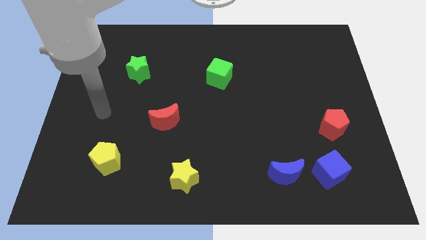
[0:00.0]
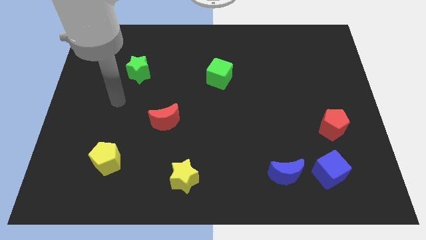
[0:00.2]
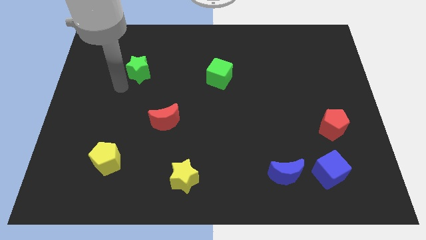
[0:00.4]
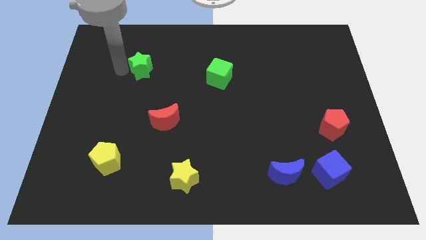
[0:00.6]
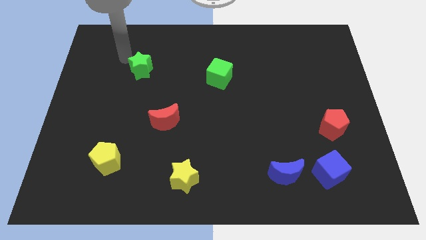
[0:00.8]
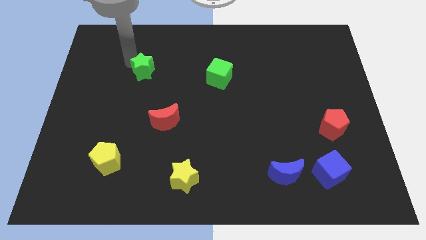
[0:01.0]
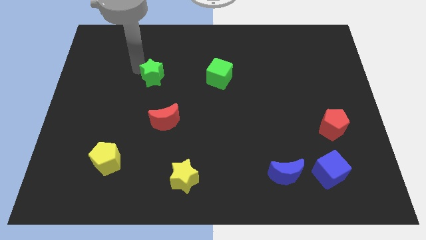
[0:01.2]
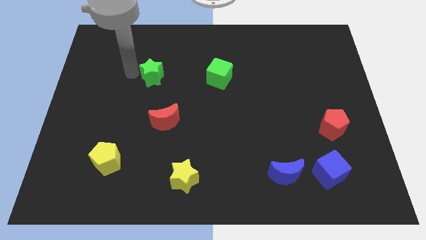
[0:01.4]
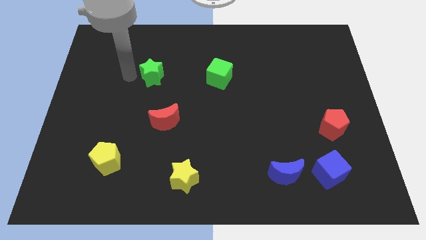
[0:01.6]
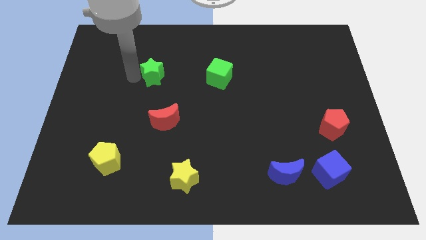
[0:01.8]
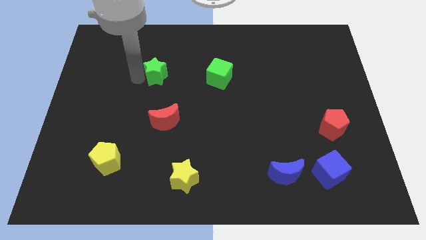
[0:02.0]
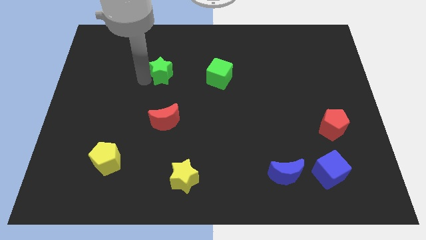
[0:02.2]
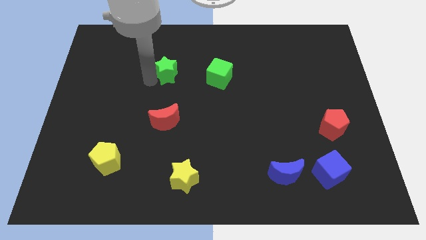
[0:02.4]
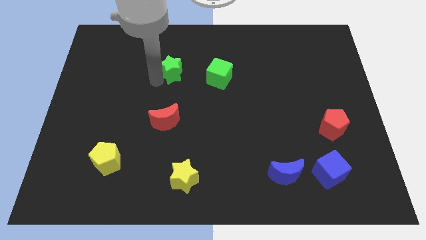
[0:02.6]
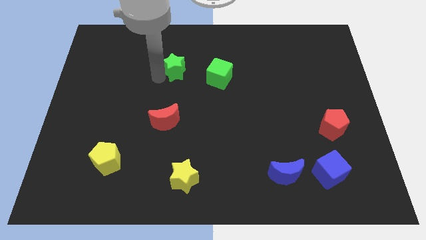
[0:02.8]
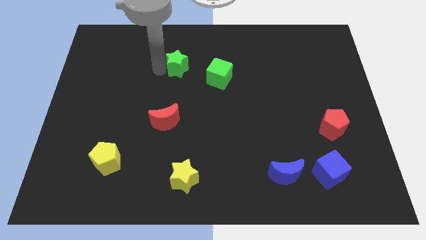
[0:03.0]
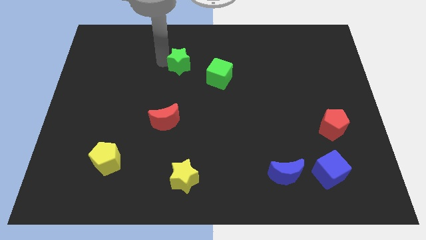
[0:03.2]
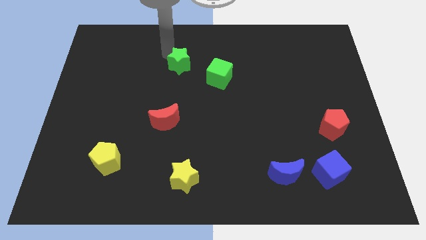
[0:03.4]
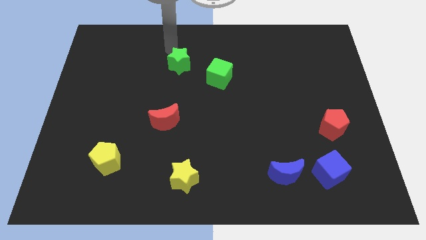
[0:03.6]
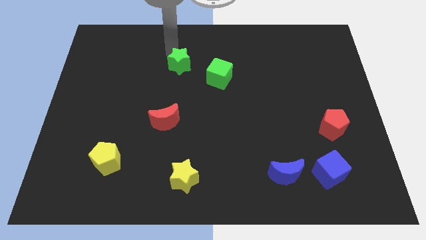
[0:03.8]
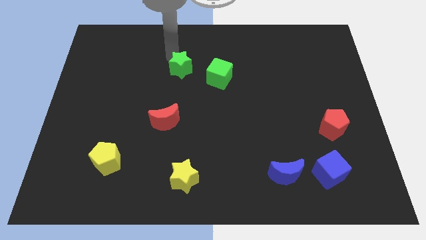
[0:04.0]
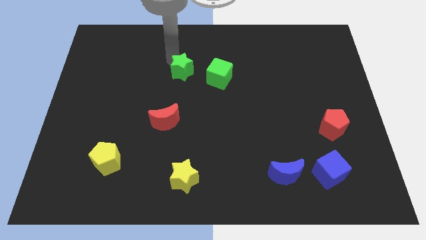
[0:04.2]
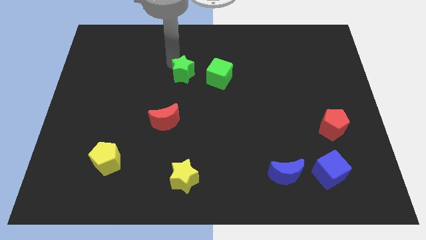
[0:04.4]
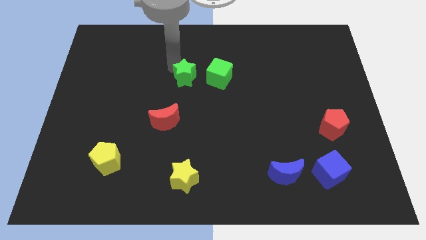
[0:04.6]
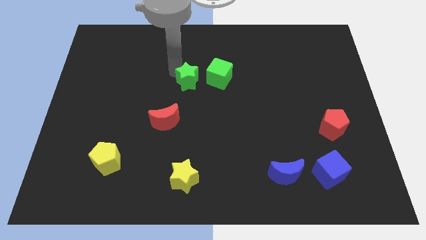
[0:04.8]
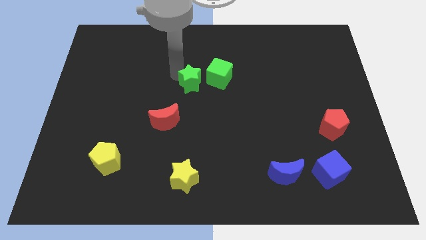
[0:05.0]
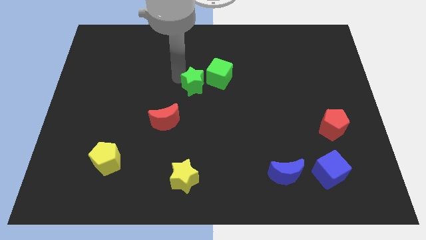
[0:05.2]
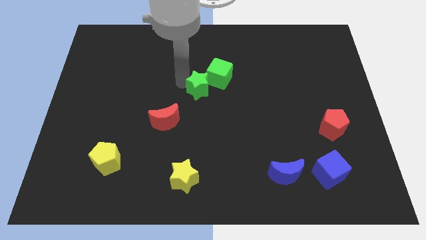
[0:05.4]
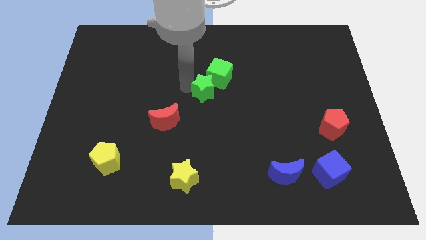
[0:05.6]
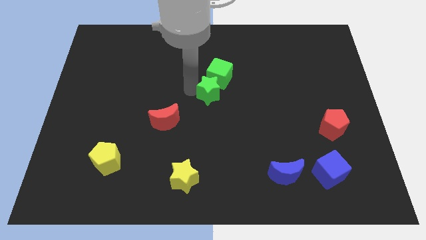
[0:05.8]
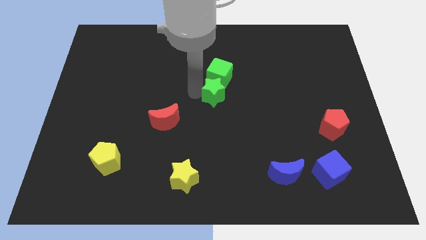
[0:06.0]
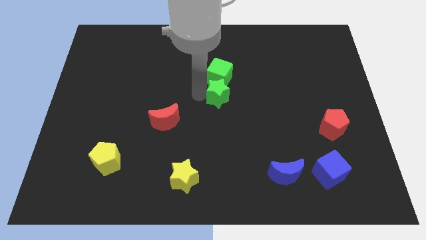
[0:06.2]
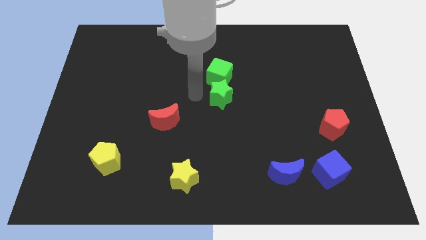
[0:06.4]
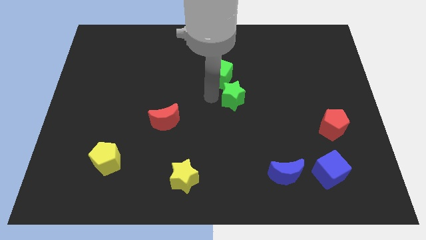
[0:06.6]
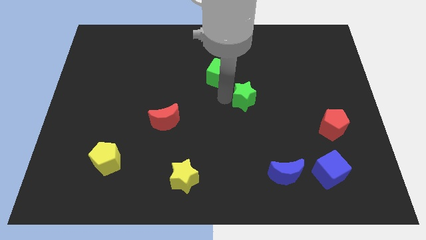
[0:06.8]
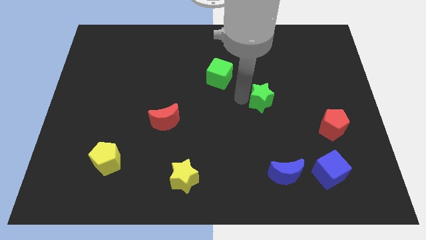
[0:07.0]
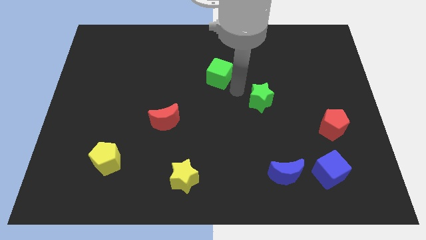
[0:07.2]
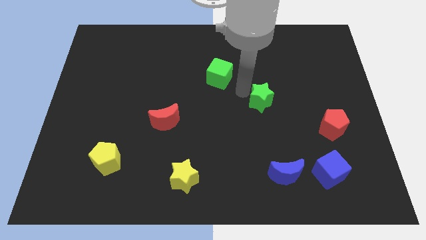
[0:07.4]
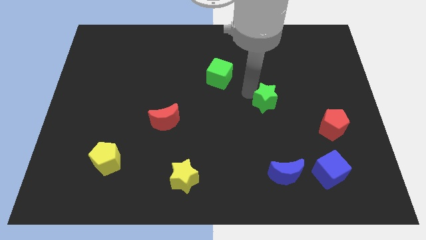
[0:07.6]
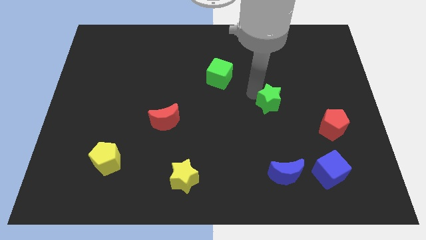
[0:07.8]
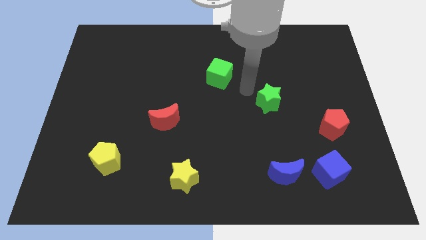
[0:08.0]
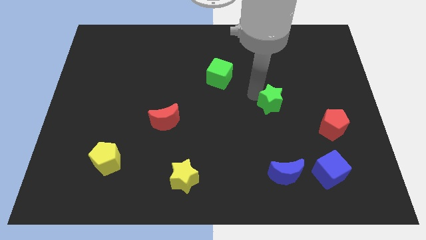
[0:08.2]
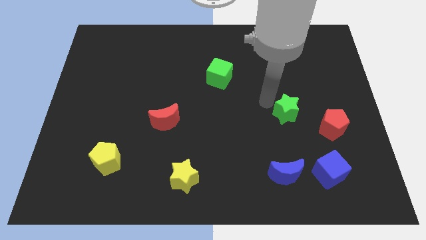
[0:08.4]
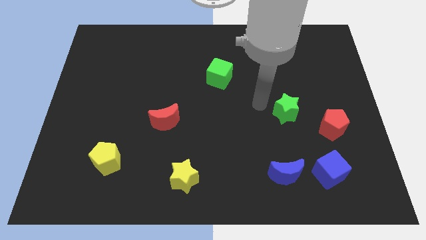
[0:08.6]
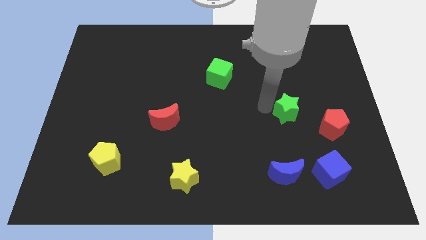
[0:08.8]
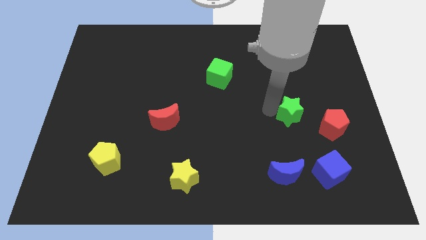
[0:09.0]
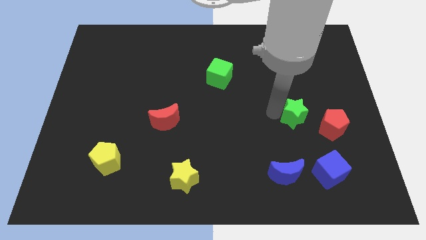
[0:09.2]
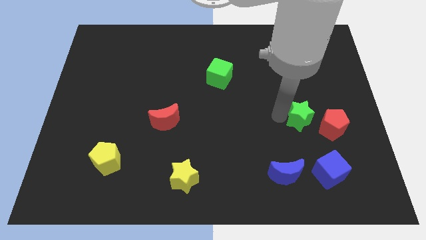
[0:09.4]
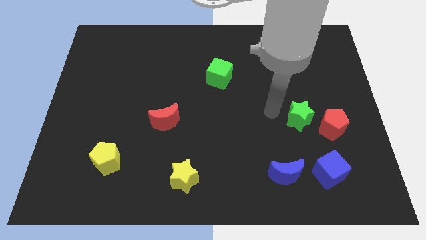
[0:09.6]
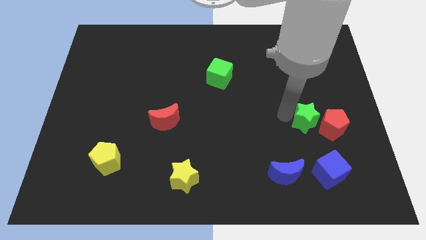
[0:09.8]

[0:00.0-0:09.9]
slide the green star next to the red pentagon

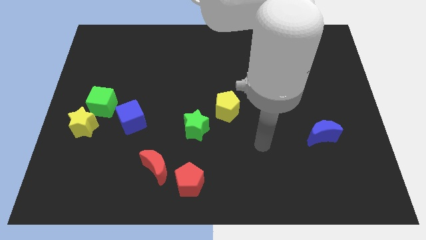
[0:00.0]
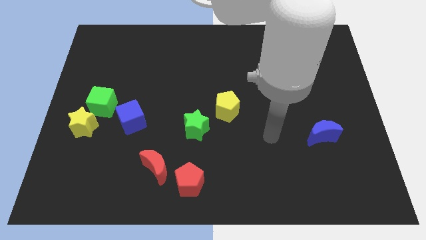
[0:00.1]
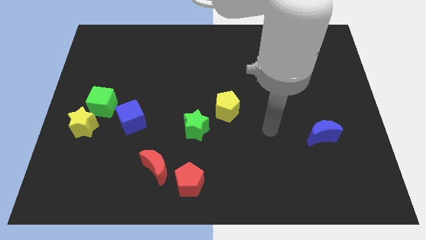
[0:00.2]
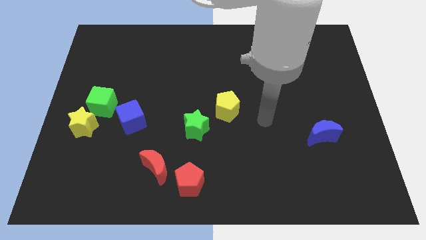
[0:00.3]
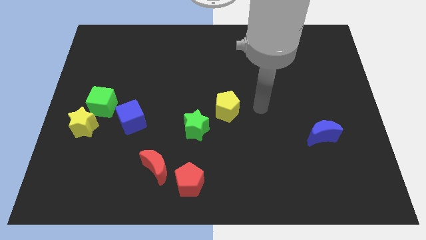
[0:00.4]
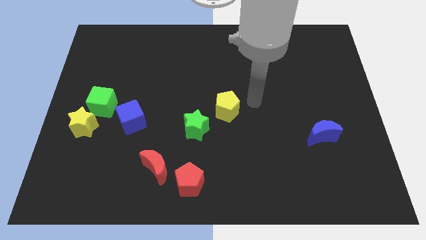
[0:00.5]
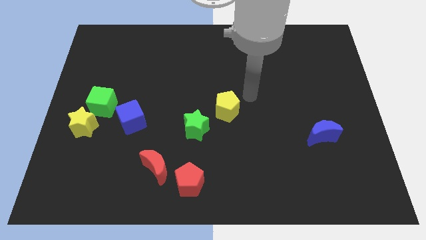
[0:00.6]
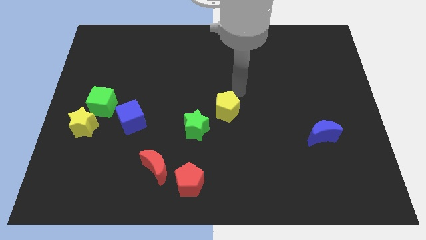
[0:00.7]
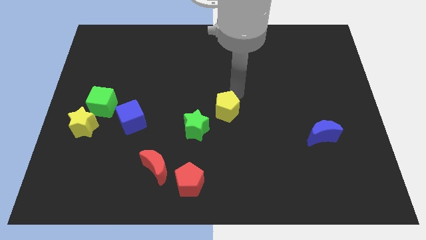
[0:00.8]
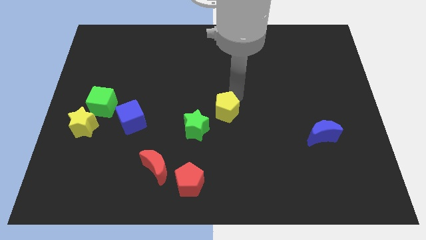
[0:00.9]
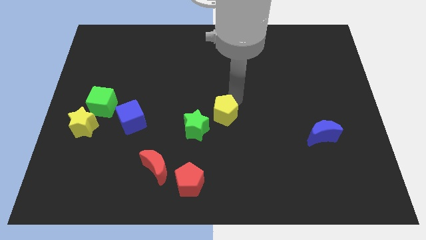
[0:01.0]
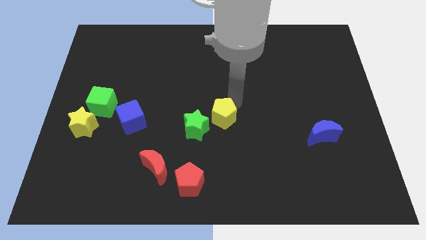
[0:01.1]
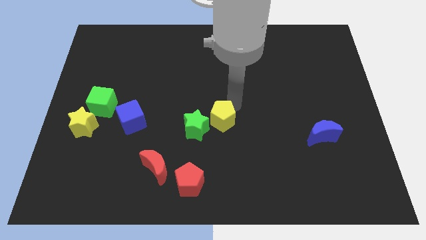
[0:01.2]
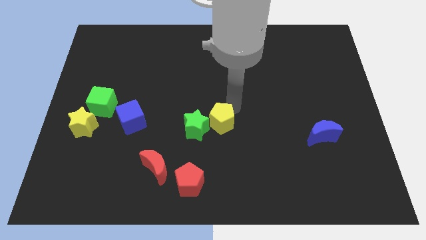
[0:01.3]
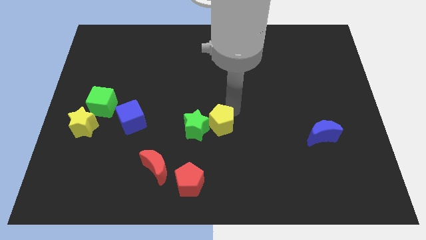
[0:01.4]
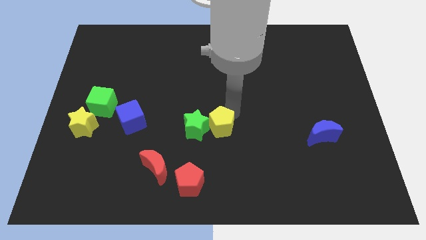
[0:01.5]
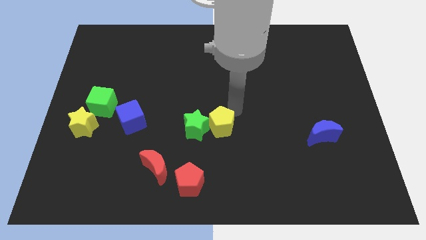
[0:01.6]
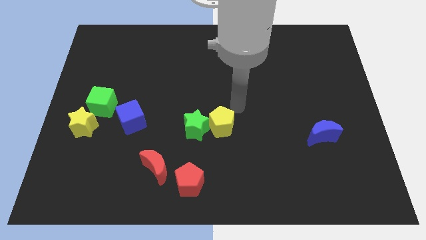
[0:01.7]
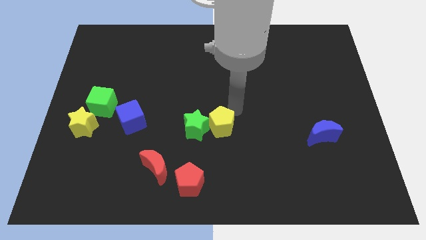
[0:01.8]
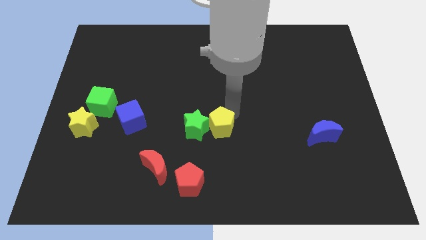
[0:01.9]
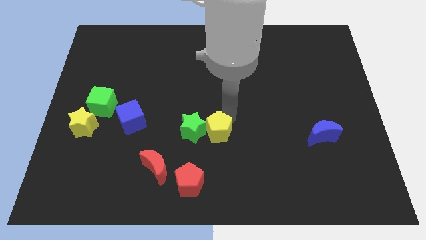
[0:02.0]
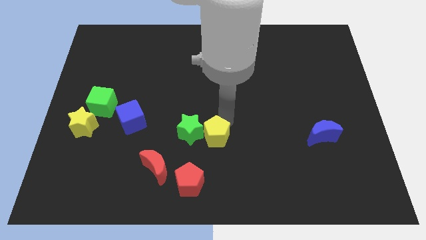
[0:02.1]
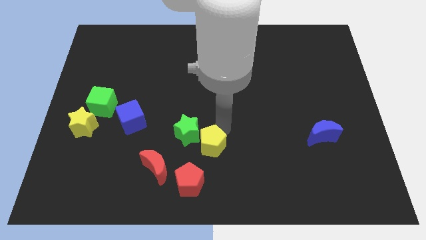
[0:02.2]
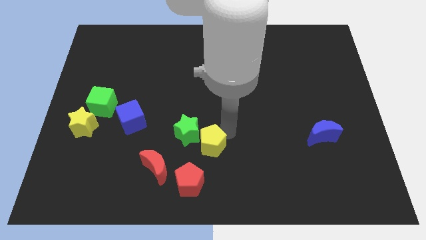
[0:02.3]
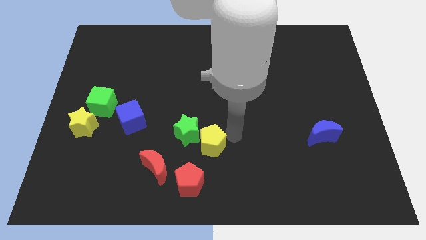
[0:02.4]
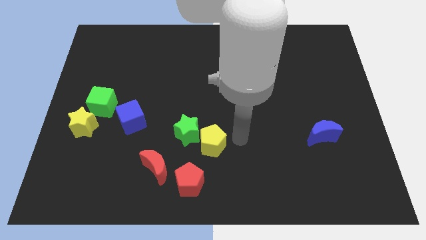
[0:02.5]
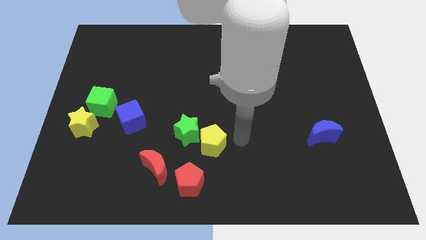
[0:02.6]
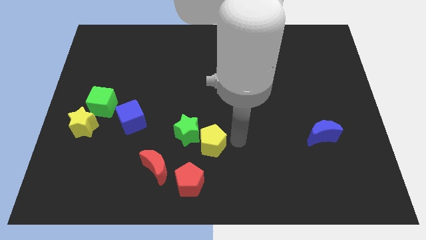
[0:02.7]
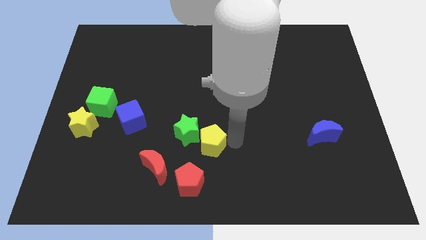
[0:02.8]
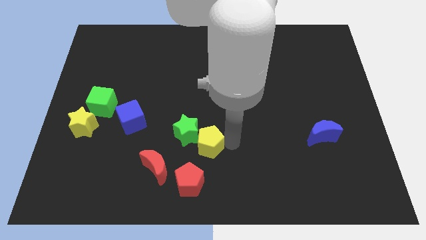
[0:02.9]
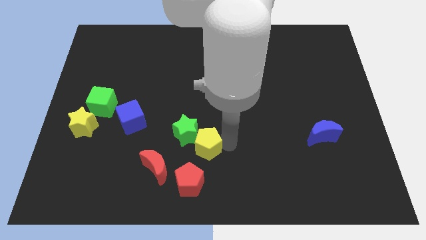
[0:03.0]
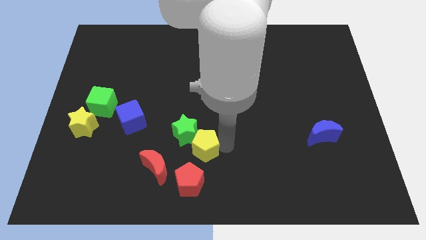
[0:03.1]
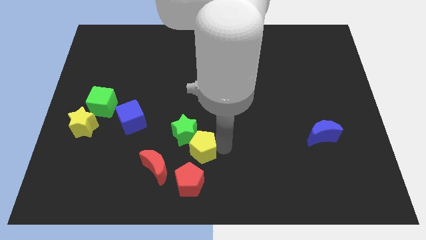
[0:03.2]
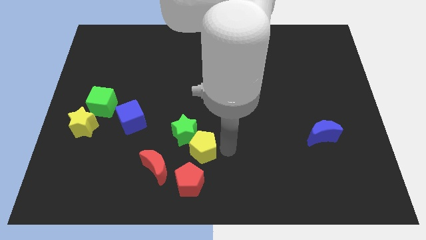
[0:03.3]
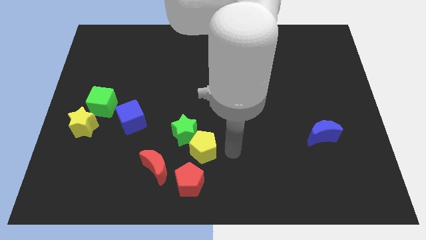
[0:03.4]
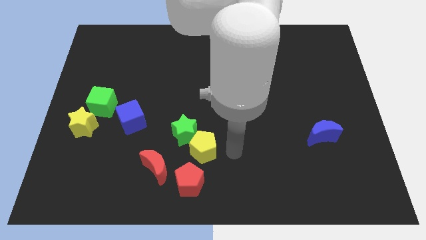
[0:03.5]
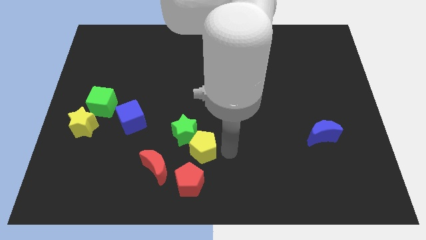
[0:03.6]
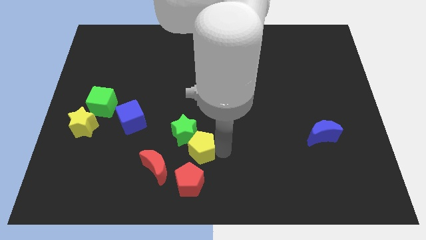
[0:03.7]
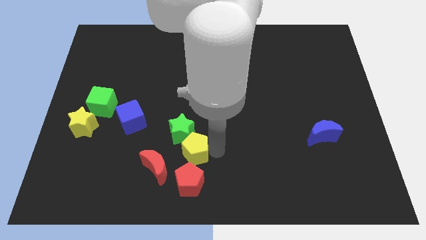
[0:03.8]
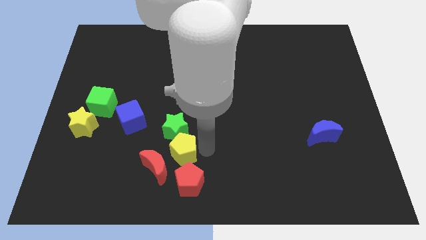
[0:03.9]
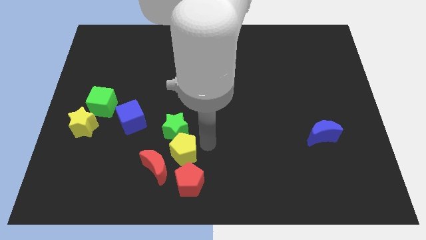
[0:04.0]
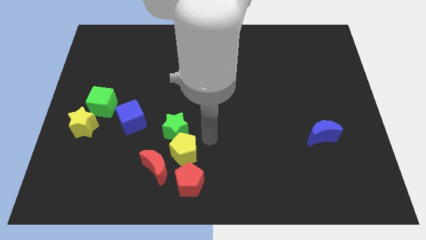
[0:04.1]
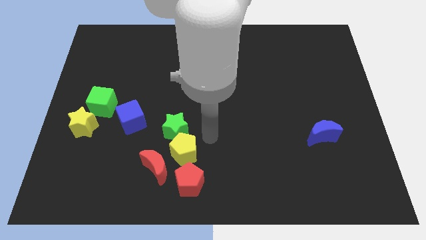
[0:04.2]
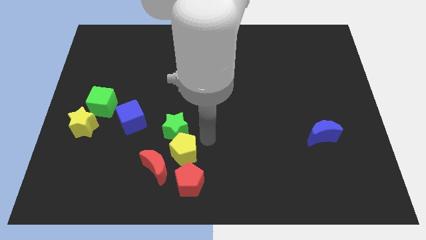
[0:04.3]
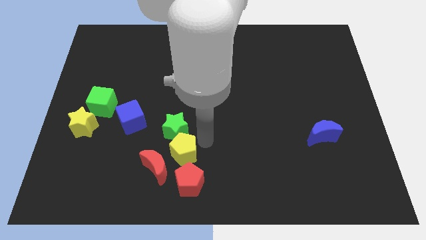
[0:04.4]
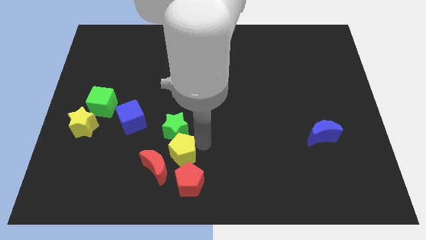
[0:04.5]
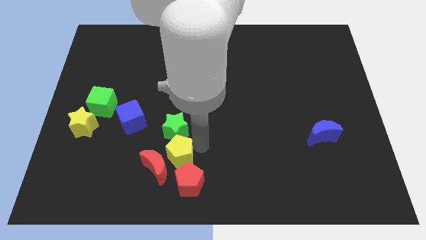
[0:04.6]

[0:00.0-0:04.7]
slide the yellow pentagon towards the red moon
